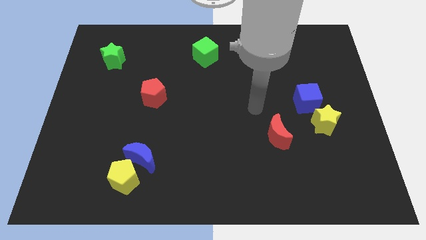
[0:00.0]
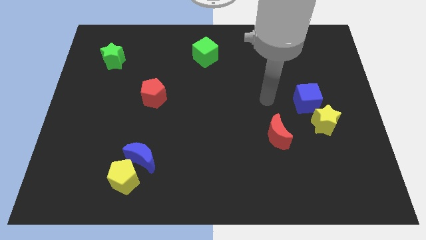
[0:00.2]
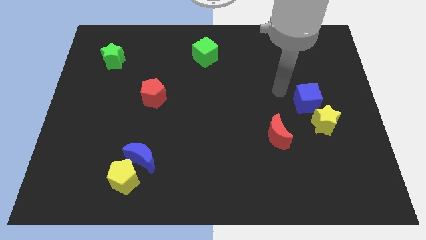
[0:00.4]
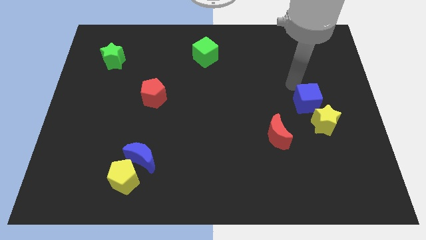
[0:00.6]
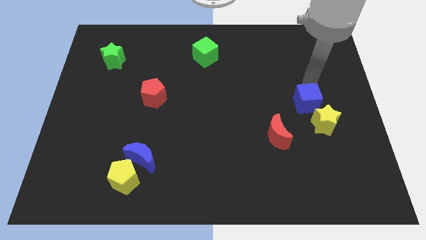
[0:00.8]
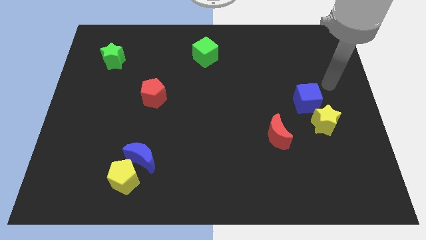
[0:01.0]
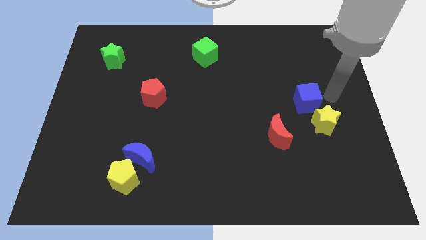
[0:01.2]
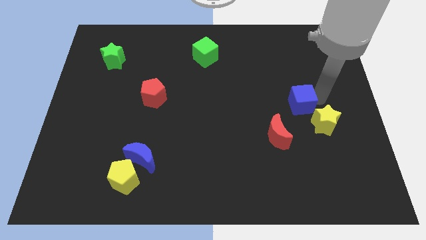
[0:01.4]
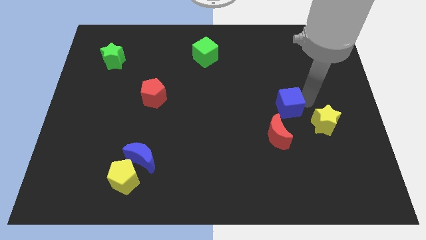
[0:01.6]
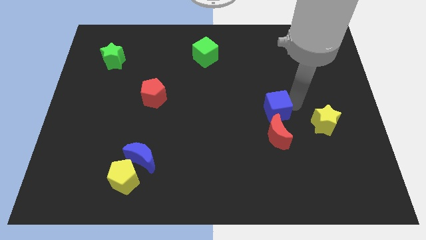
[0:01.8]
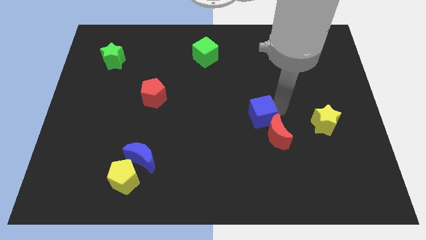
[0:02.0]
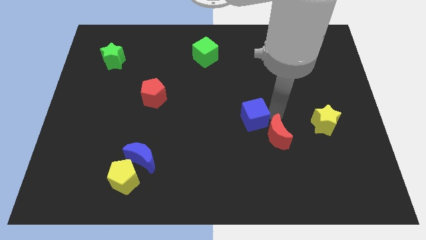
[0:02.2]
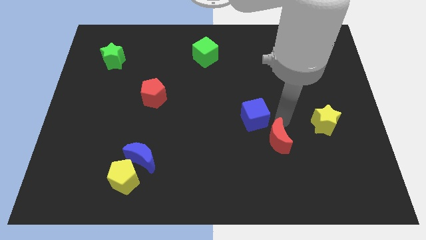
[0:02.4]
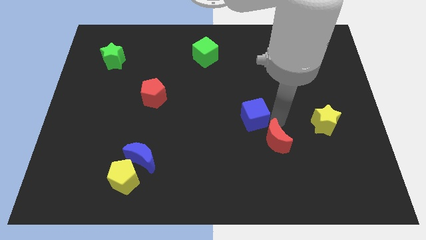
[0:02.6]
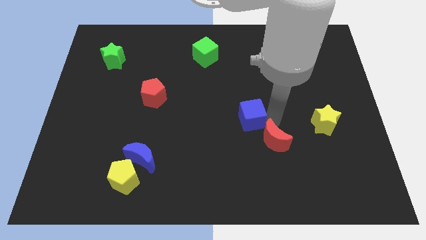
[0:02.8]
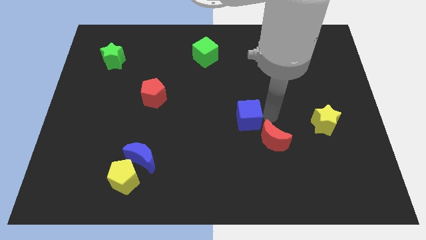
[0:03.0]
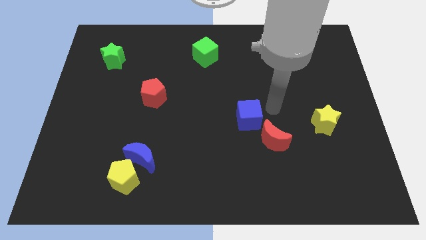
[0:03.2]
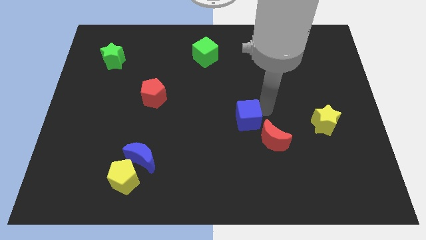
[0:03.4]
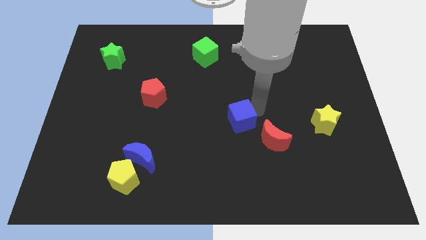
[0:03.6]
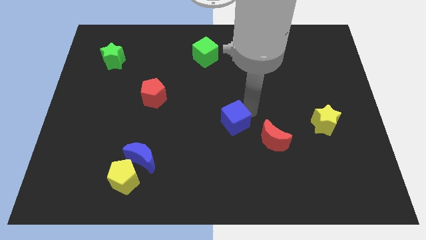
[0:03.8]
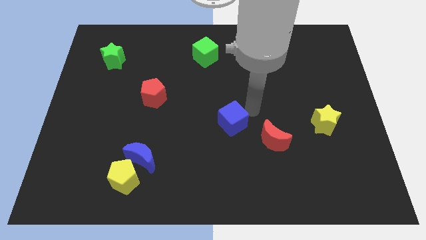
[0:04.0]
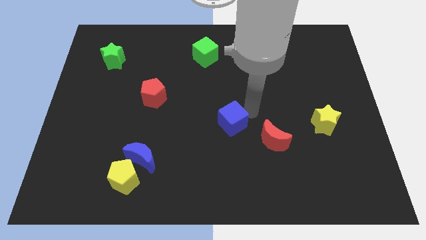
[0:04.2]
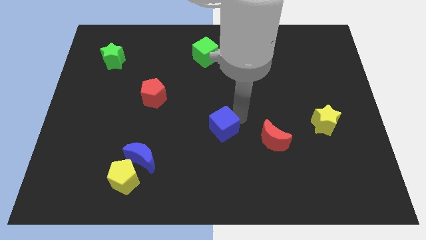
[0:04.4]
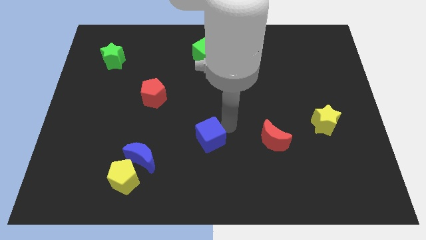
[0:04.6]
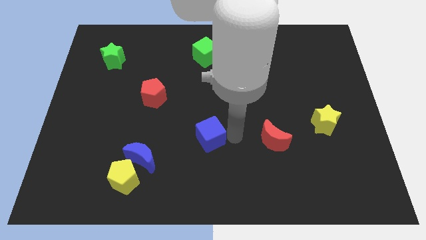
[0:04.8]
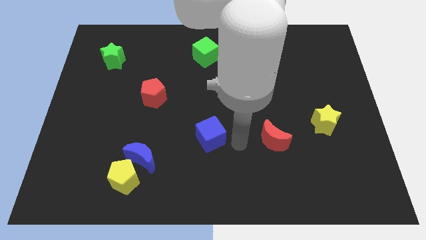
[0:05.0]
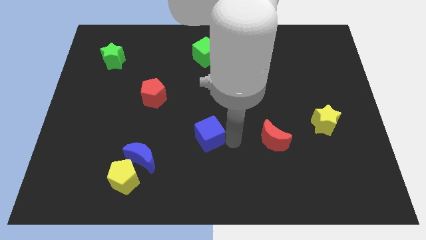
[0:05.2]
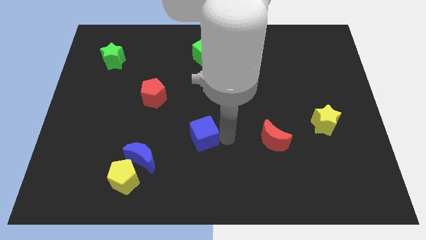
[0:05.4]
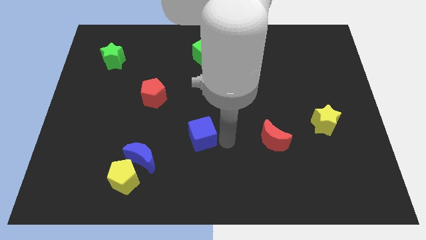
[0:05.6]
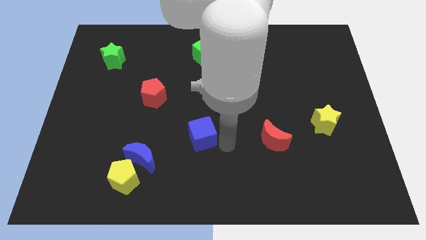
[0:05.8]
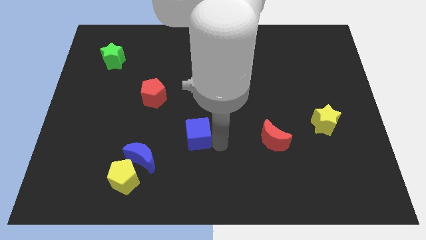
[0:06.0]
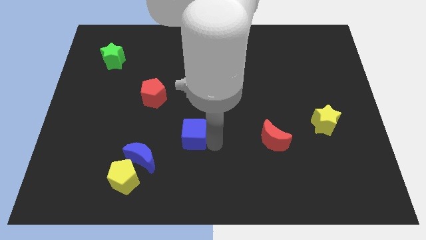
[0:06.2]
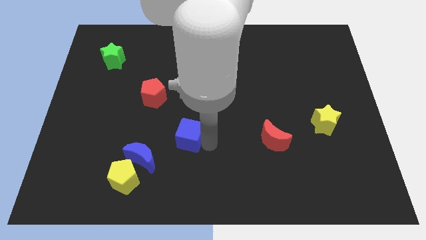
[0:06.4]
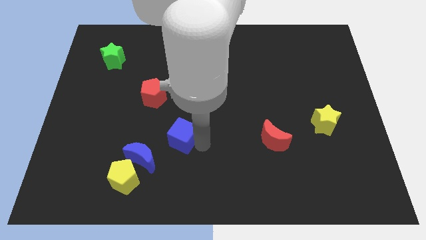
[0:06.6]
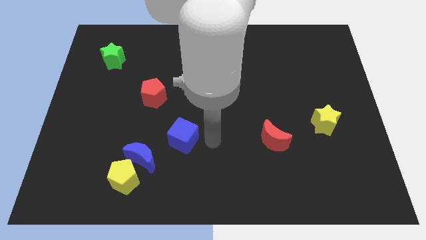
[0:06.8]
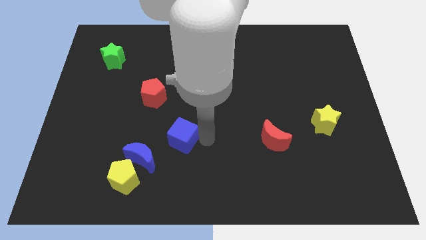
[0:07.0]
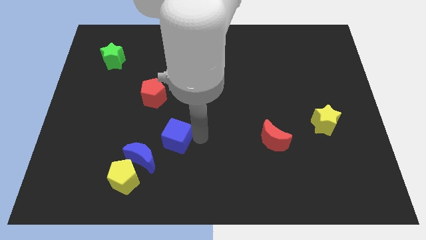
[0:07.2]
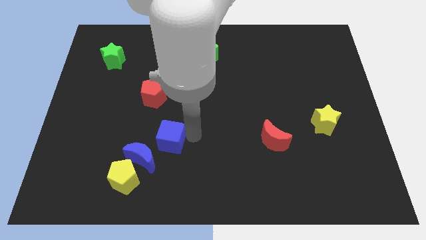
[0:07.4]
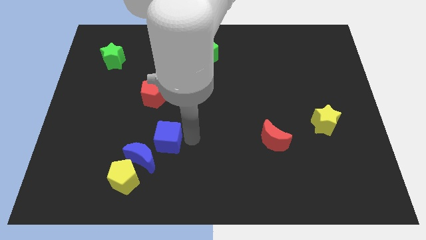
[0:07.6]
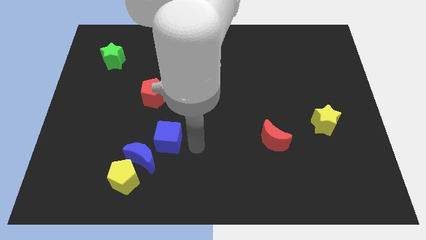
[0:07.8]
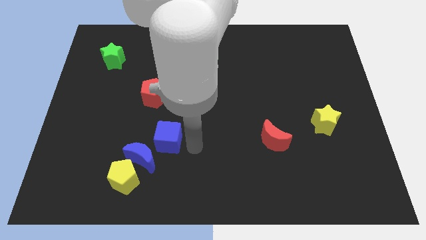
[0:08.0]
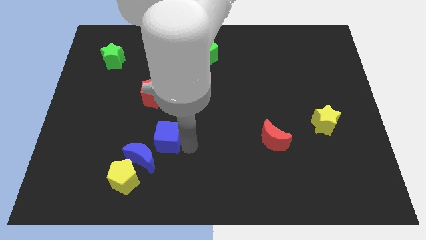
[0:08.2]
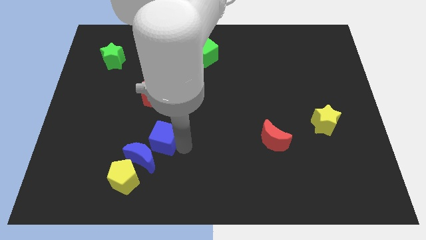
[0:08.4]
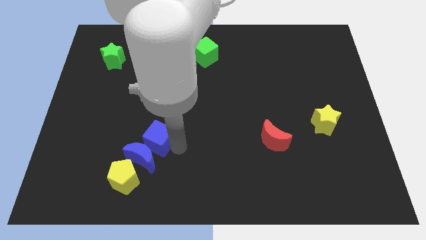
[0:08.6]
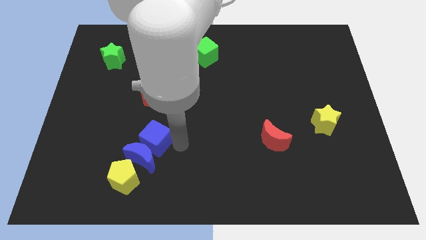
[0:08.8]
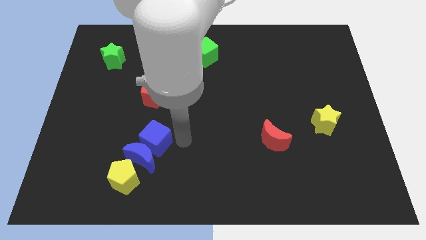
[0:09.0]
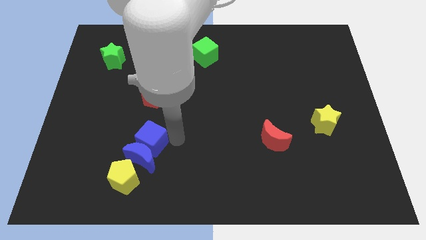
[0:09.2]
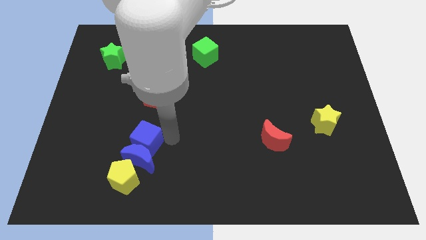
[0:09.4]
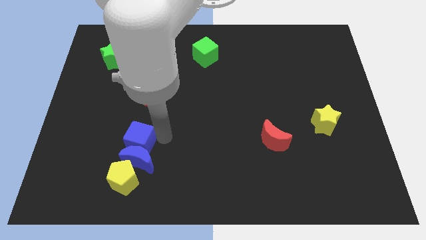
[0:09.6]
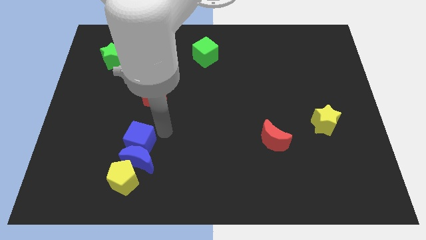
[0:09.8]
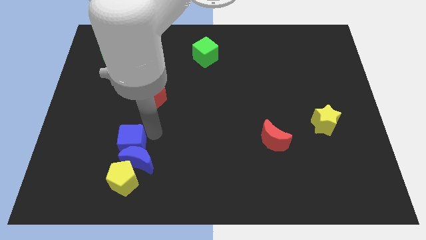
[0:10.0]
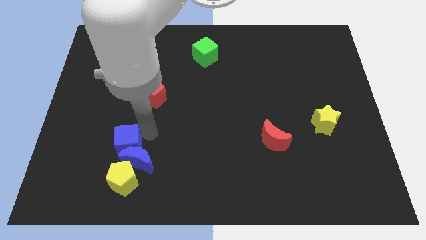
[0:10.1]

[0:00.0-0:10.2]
put the blue cube to the left side of the blue moon

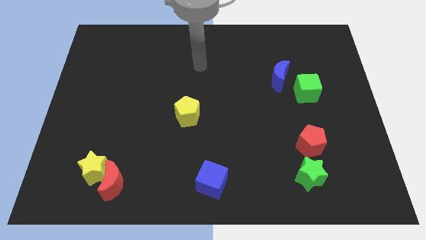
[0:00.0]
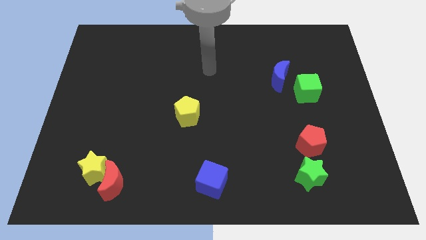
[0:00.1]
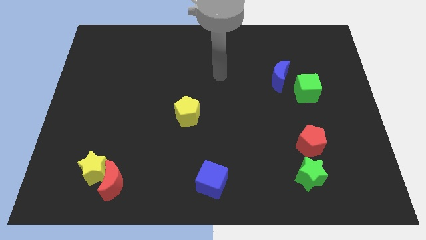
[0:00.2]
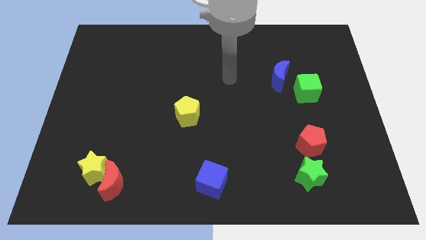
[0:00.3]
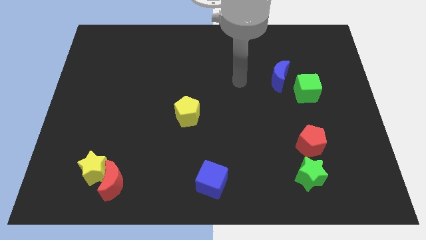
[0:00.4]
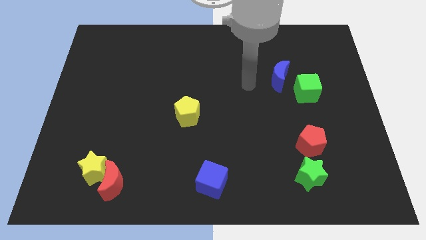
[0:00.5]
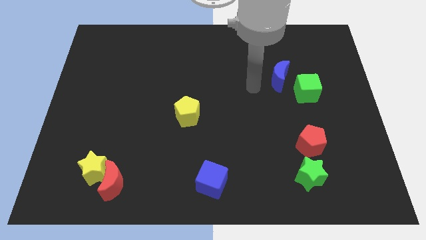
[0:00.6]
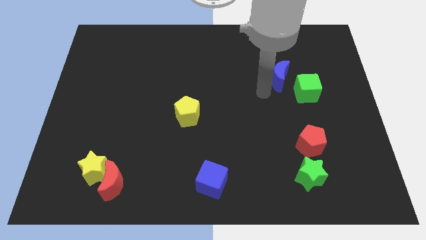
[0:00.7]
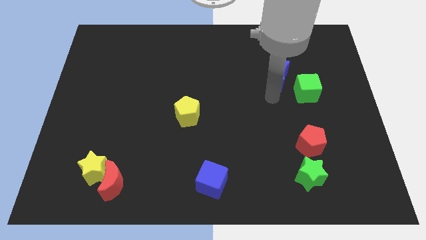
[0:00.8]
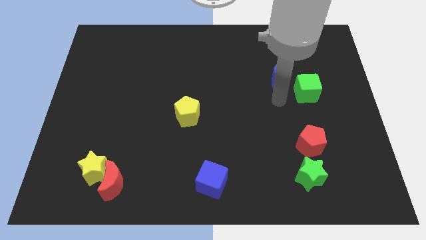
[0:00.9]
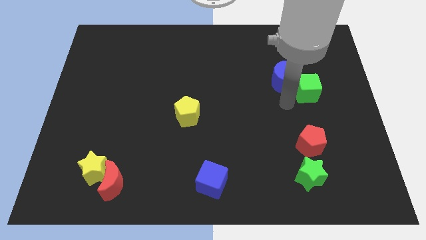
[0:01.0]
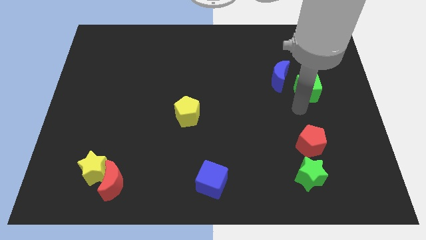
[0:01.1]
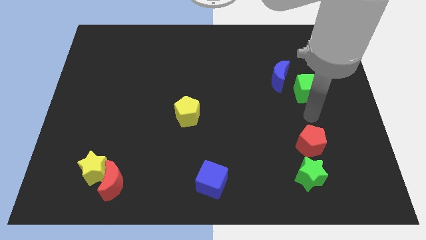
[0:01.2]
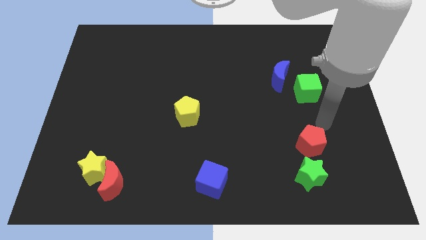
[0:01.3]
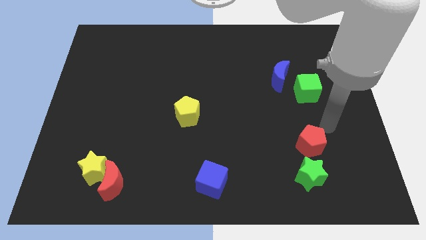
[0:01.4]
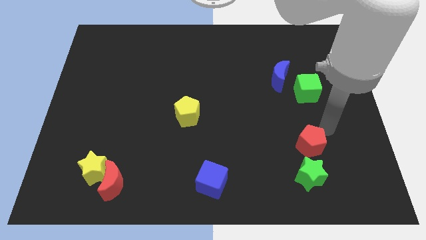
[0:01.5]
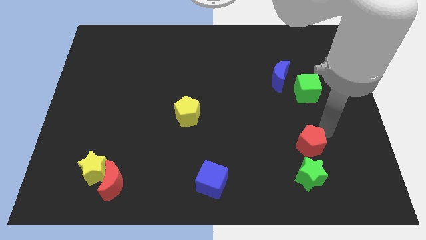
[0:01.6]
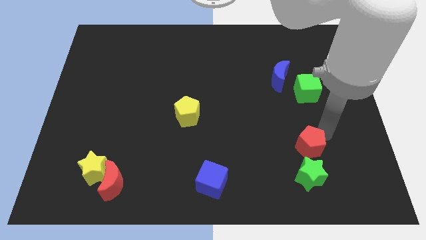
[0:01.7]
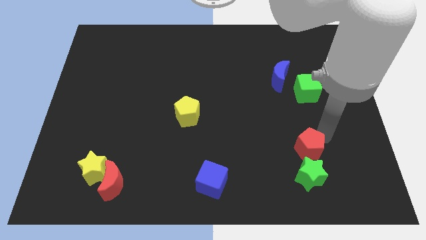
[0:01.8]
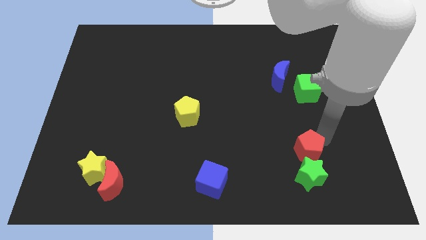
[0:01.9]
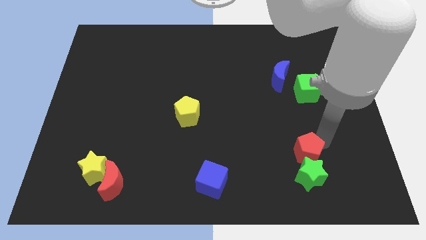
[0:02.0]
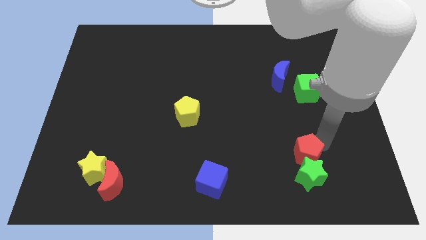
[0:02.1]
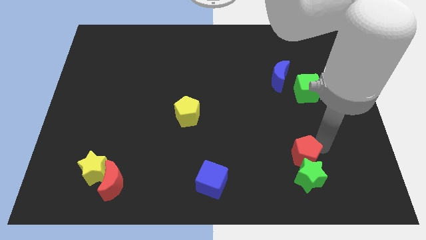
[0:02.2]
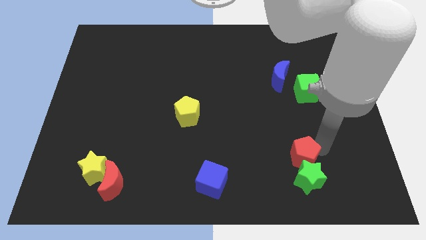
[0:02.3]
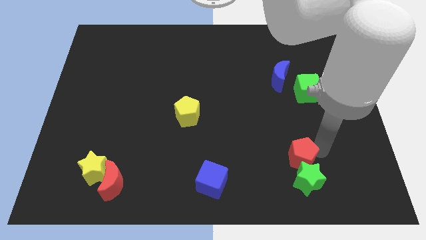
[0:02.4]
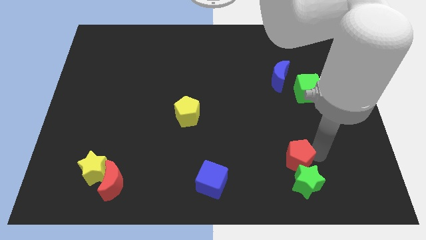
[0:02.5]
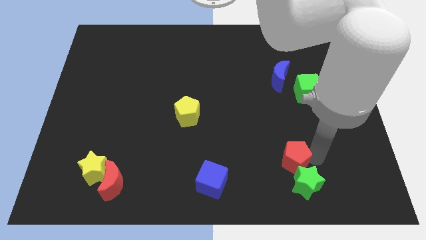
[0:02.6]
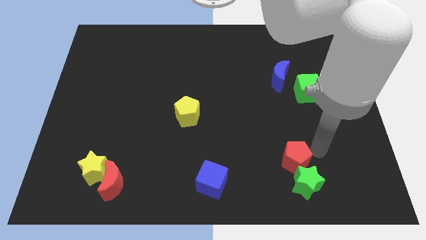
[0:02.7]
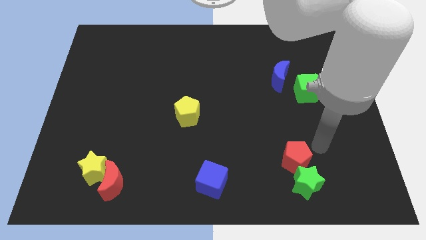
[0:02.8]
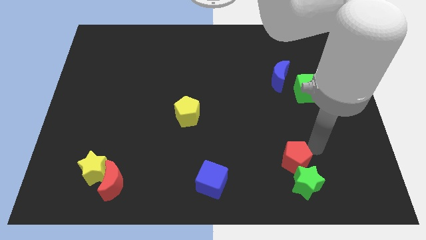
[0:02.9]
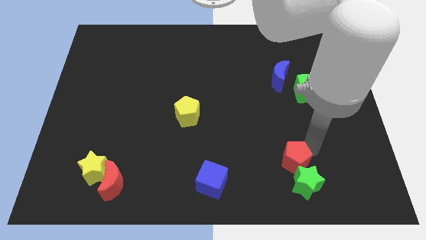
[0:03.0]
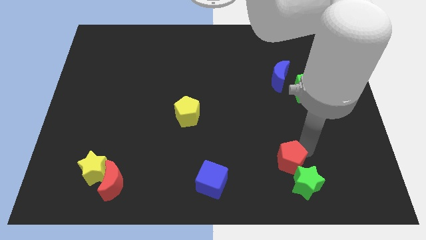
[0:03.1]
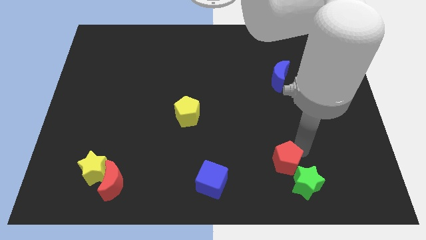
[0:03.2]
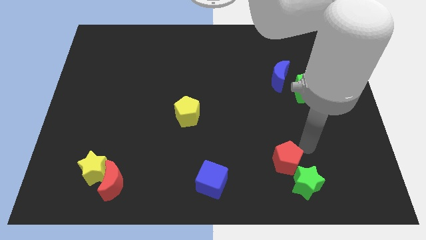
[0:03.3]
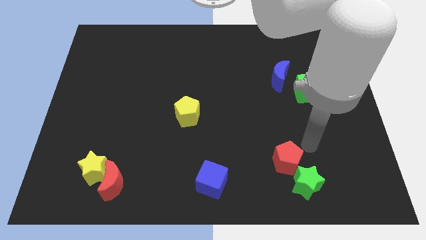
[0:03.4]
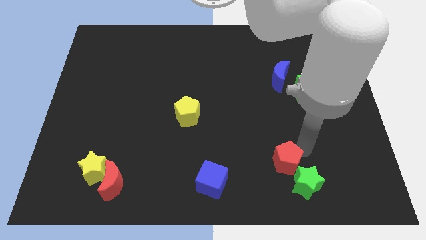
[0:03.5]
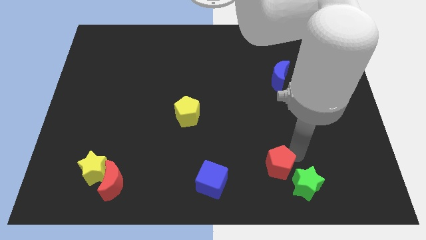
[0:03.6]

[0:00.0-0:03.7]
put the red pentagon to the left of the green star
